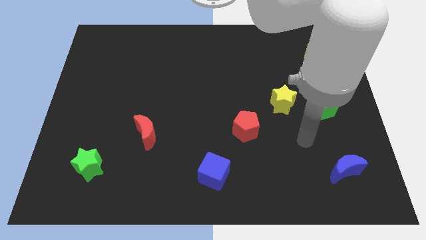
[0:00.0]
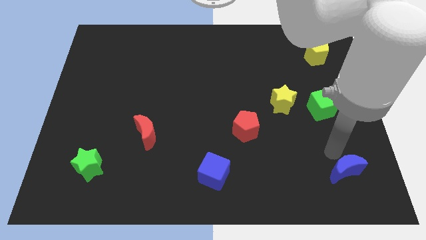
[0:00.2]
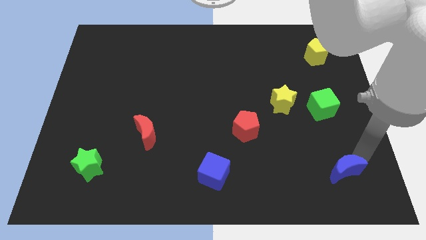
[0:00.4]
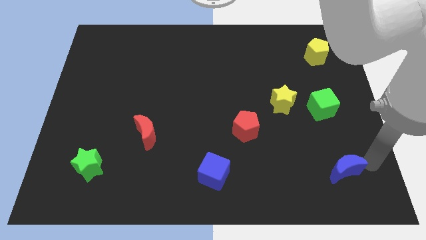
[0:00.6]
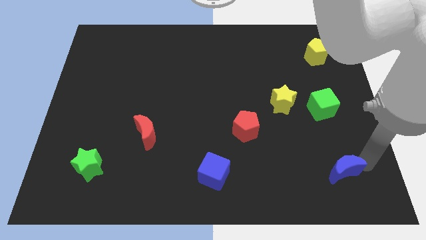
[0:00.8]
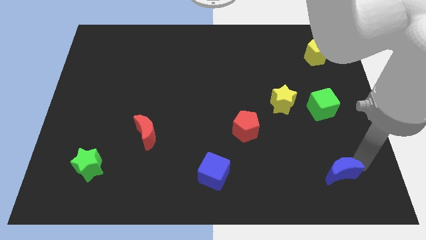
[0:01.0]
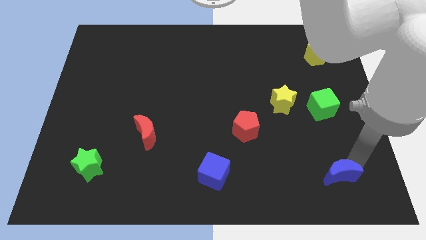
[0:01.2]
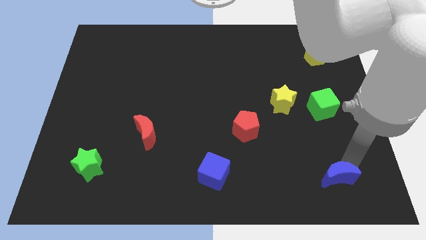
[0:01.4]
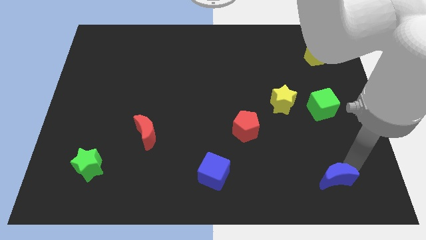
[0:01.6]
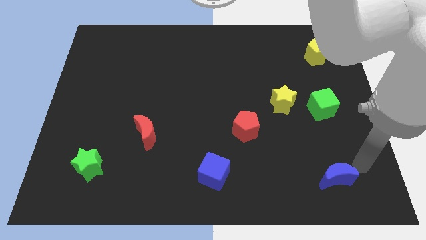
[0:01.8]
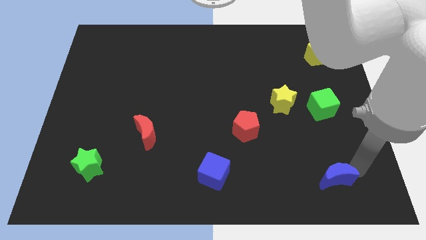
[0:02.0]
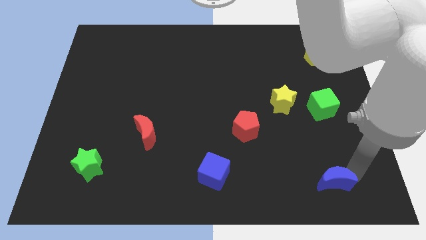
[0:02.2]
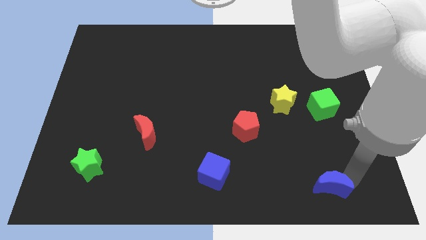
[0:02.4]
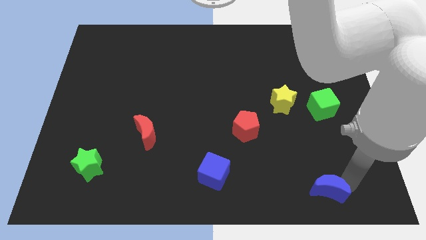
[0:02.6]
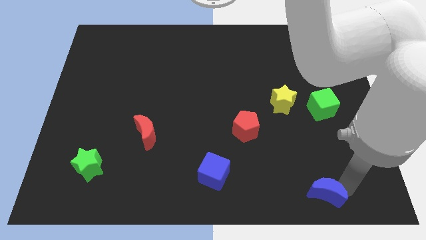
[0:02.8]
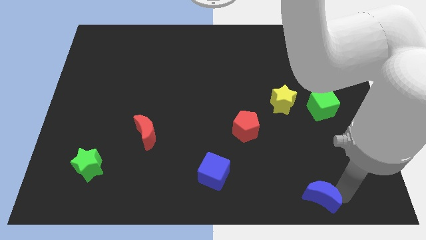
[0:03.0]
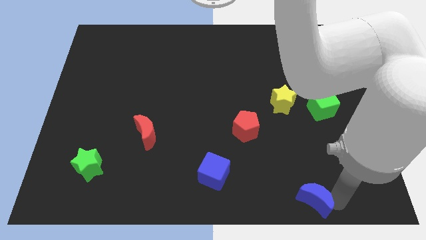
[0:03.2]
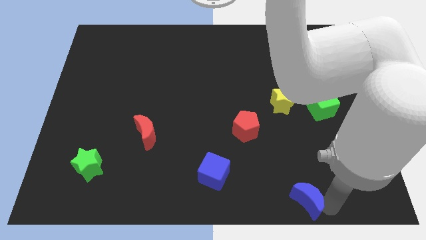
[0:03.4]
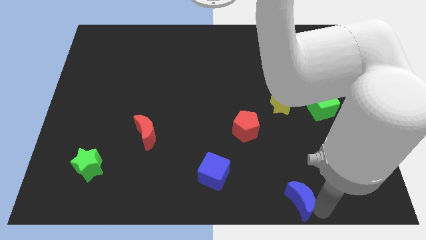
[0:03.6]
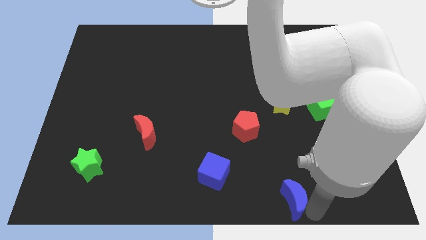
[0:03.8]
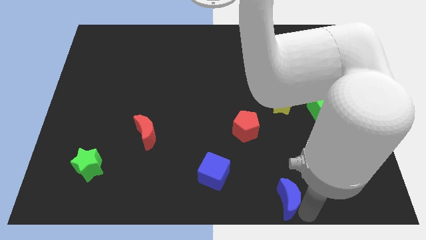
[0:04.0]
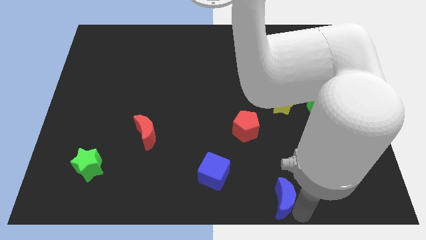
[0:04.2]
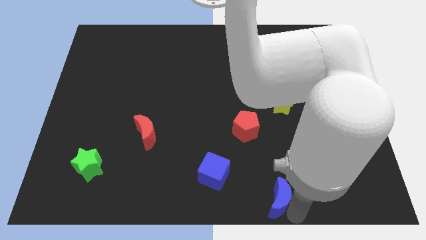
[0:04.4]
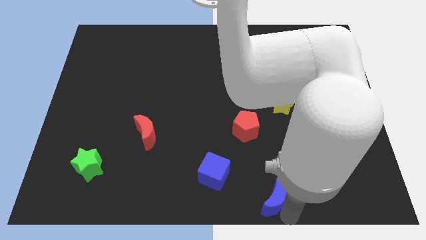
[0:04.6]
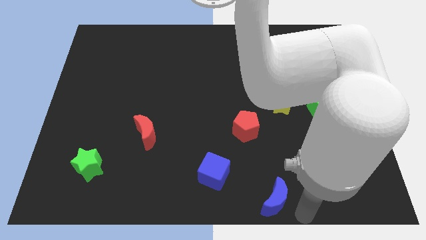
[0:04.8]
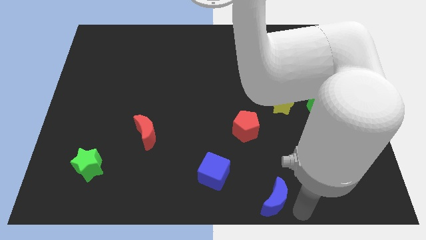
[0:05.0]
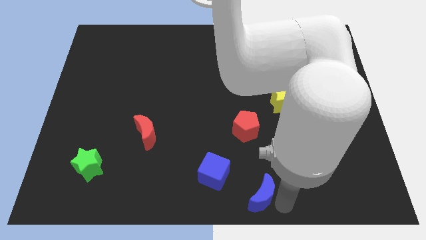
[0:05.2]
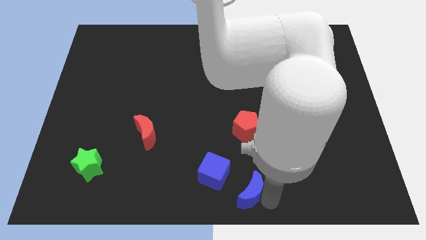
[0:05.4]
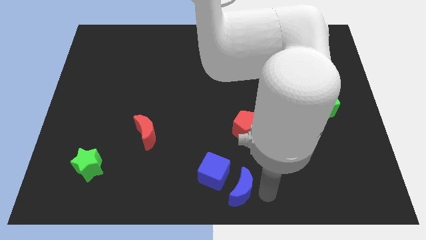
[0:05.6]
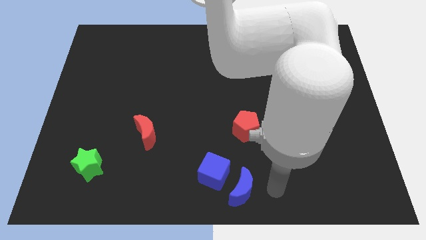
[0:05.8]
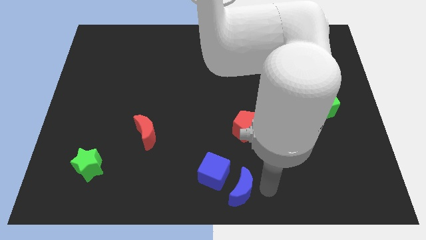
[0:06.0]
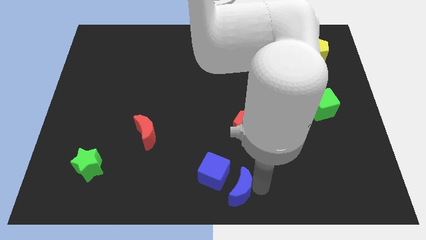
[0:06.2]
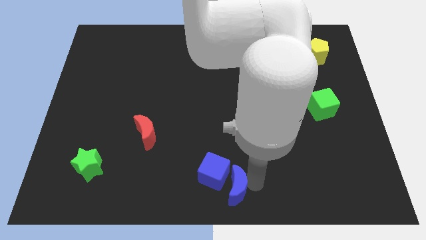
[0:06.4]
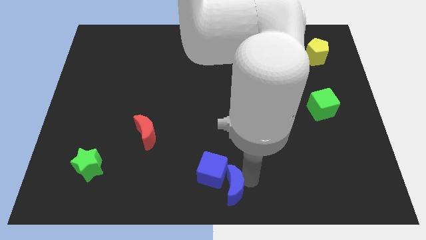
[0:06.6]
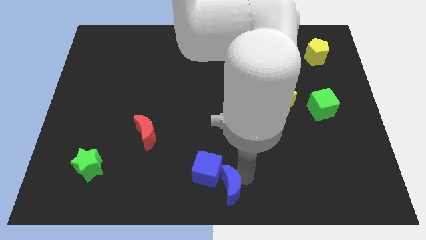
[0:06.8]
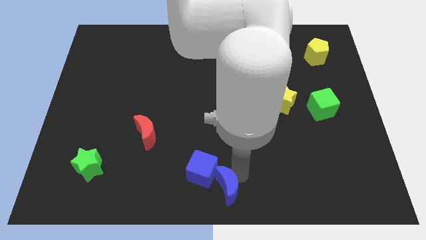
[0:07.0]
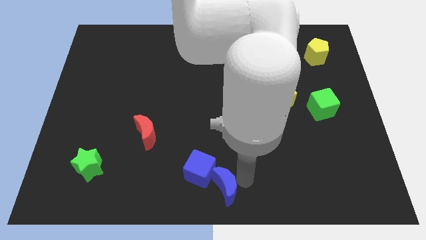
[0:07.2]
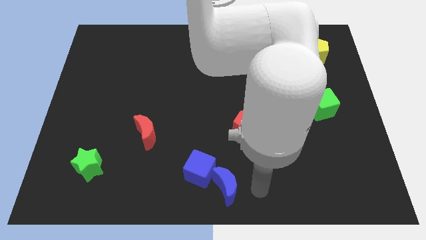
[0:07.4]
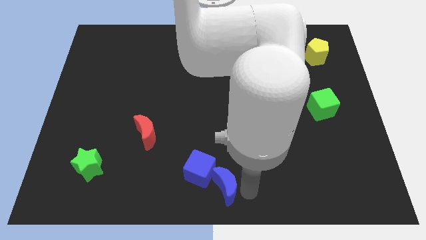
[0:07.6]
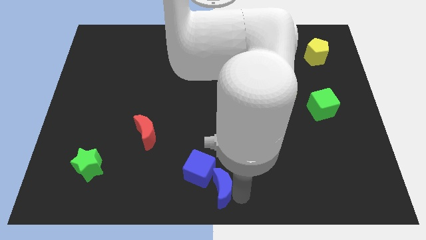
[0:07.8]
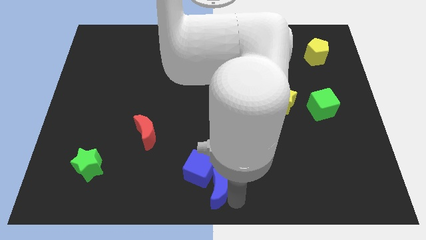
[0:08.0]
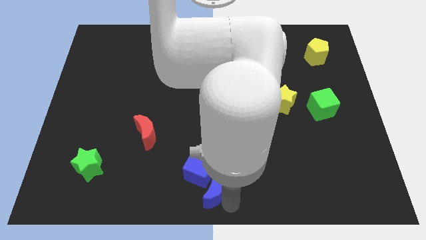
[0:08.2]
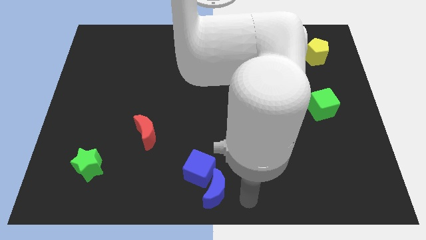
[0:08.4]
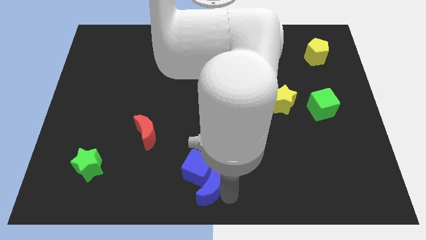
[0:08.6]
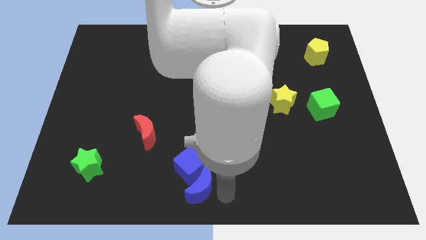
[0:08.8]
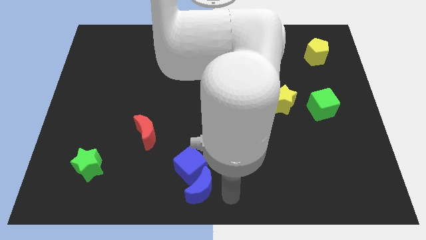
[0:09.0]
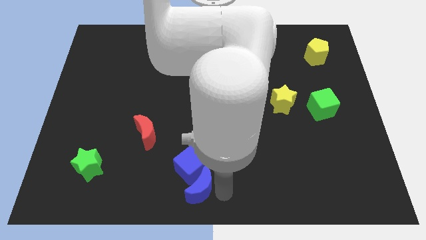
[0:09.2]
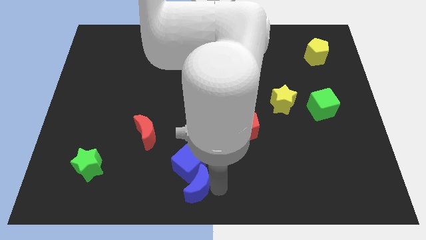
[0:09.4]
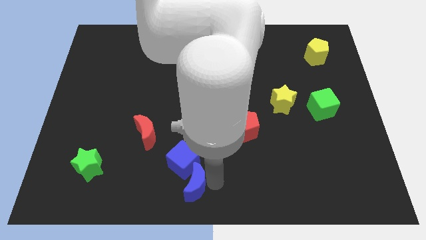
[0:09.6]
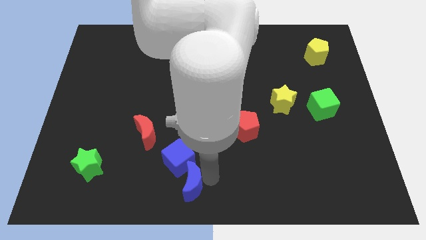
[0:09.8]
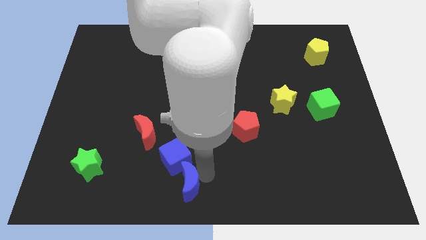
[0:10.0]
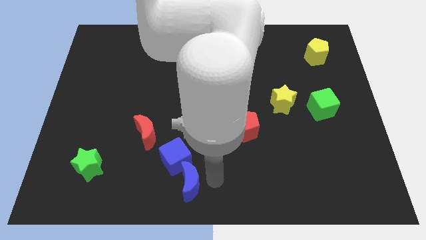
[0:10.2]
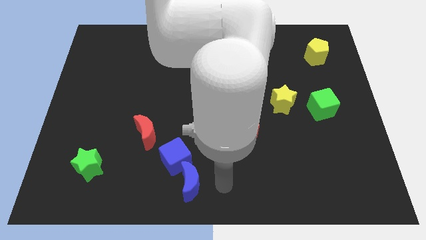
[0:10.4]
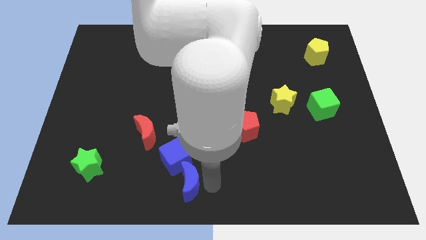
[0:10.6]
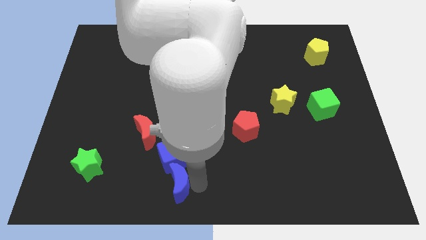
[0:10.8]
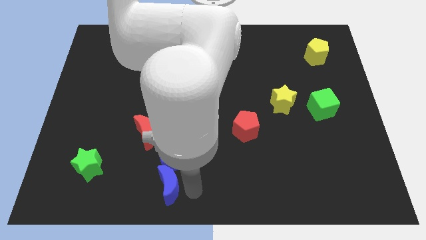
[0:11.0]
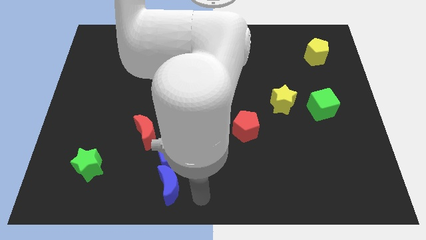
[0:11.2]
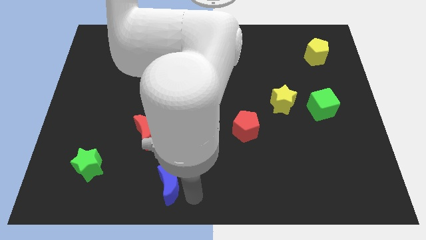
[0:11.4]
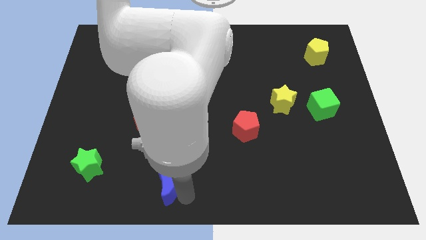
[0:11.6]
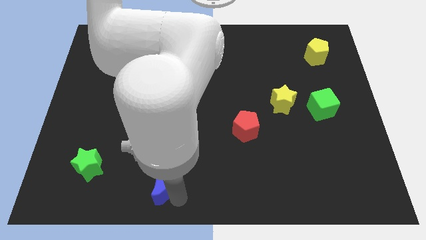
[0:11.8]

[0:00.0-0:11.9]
slide the blue moon to the bottom of the red moon

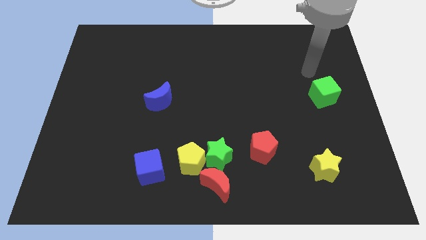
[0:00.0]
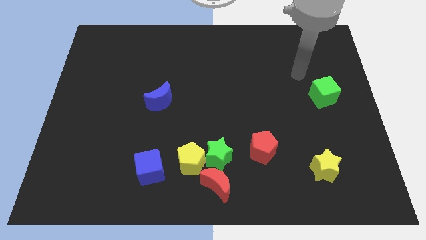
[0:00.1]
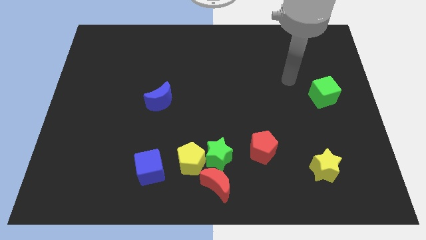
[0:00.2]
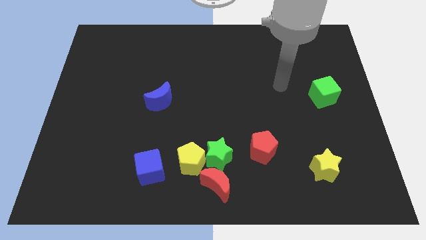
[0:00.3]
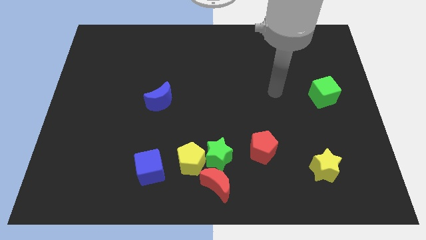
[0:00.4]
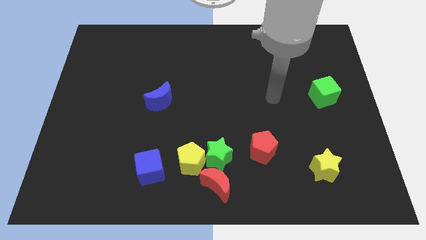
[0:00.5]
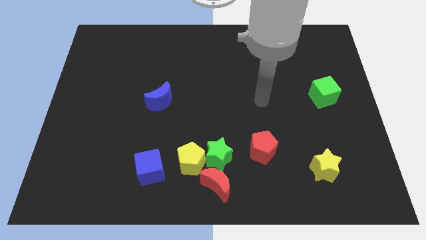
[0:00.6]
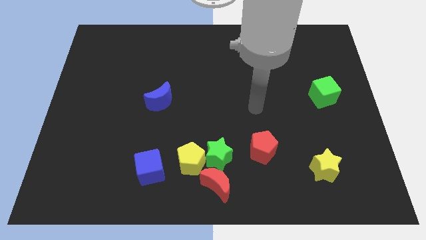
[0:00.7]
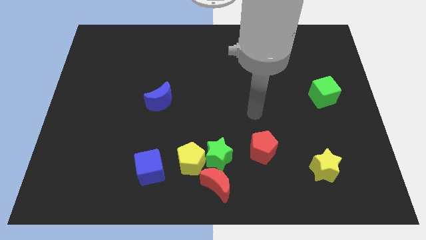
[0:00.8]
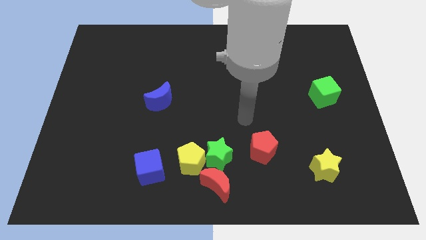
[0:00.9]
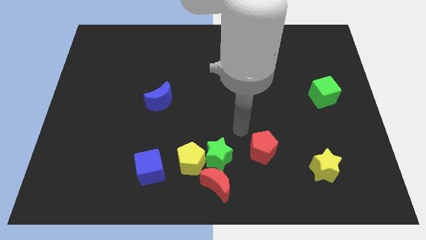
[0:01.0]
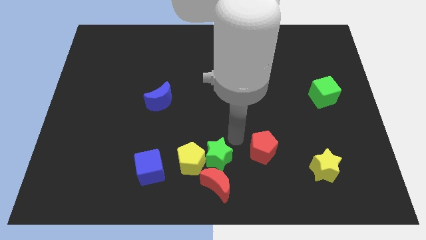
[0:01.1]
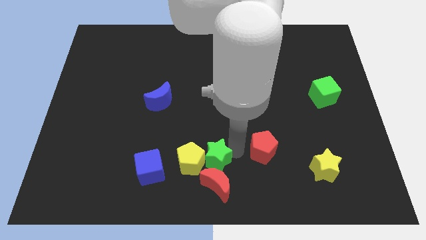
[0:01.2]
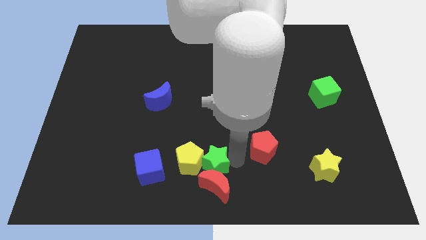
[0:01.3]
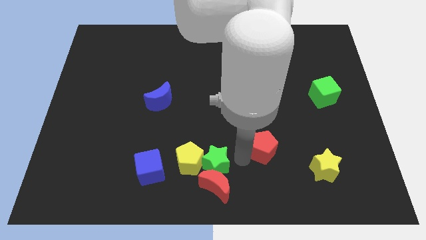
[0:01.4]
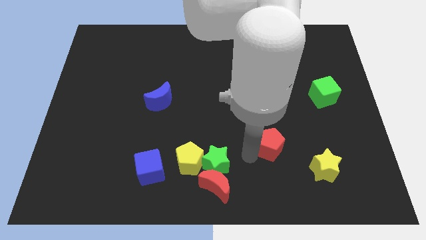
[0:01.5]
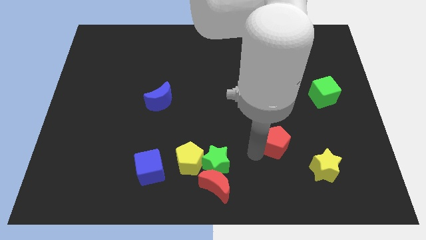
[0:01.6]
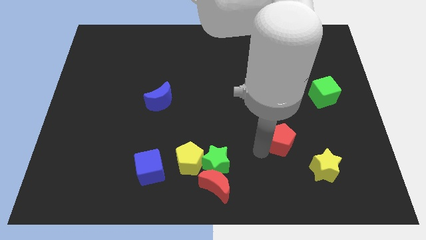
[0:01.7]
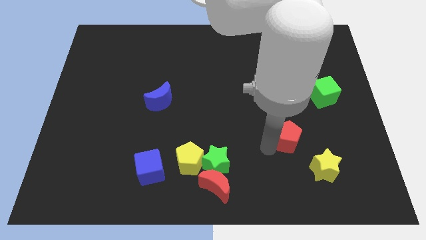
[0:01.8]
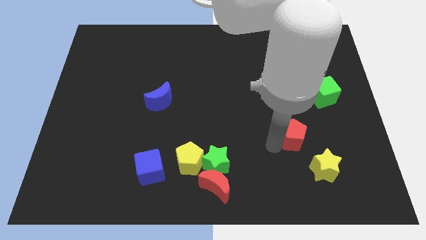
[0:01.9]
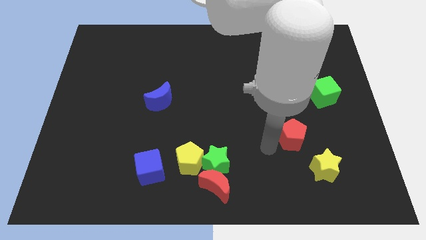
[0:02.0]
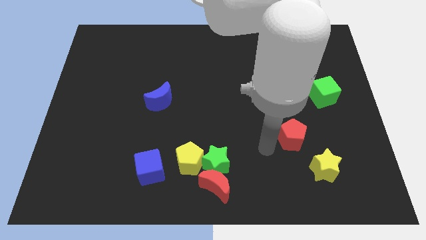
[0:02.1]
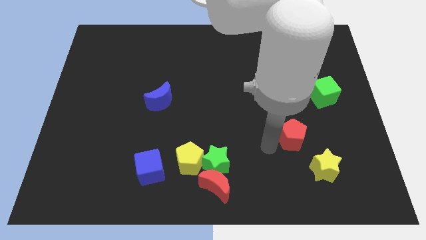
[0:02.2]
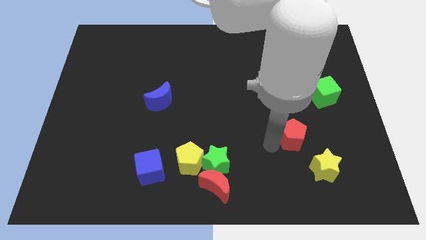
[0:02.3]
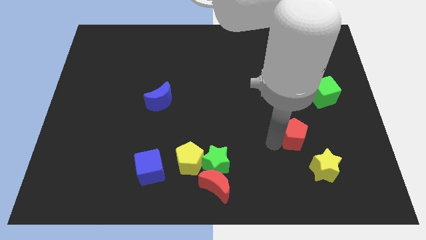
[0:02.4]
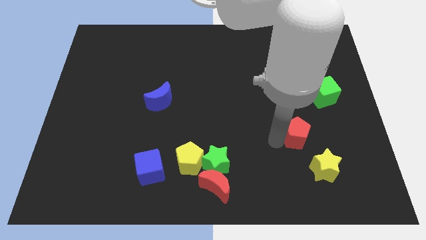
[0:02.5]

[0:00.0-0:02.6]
push the red pentagon to the top side of the yellow star

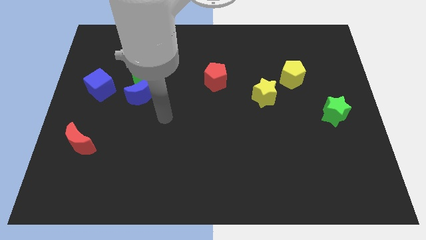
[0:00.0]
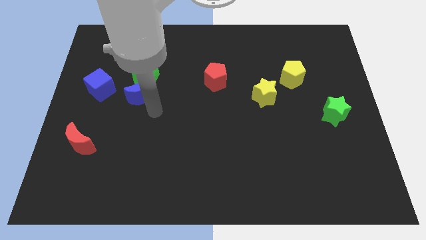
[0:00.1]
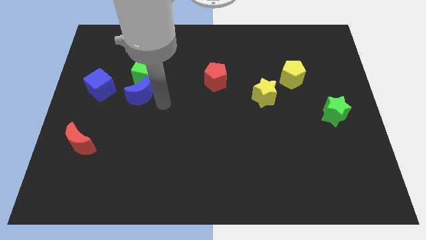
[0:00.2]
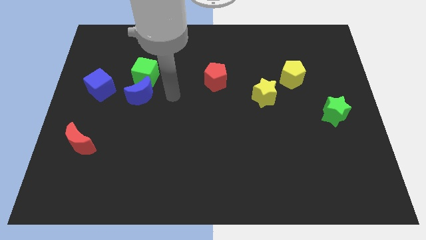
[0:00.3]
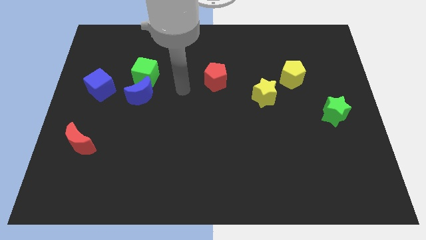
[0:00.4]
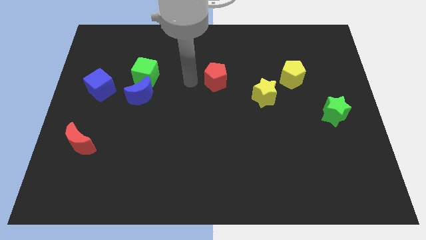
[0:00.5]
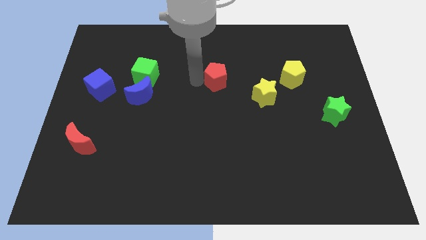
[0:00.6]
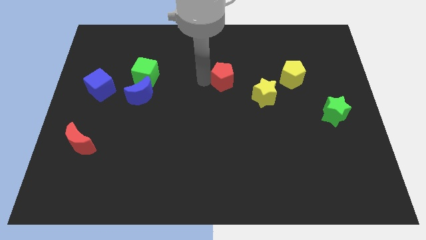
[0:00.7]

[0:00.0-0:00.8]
put the red pentagon to the top left of the yellow star
